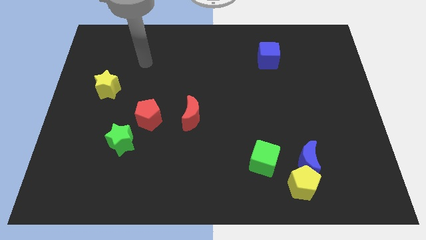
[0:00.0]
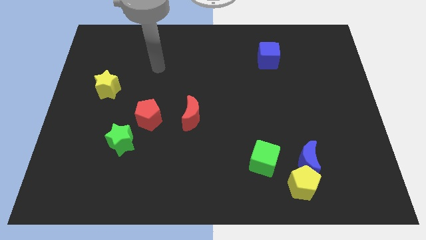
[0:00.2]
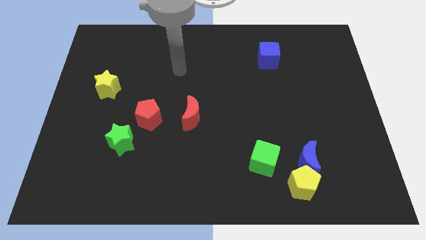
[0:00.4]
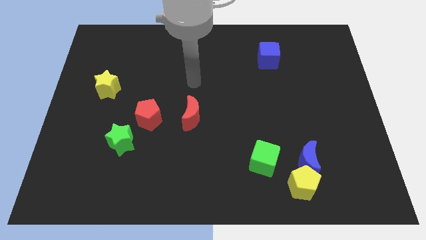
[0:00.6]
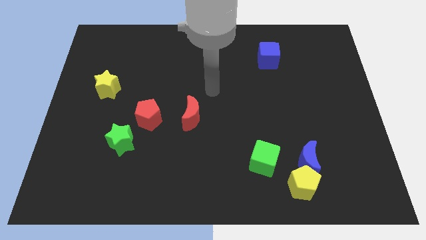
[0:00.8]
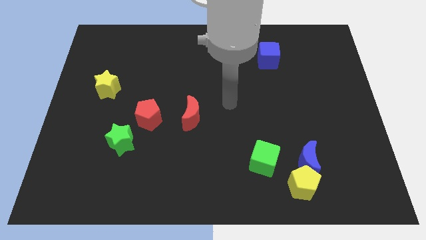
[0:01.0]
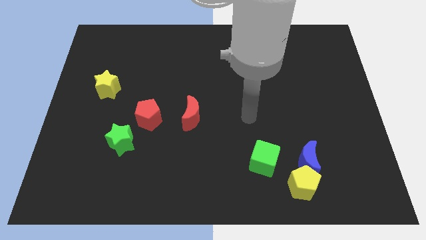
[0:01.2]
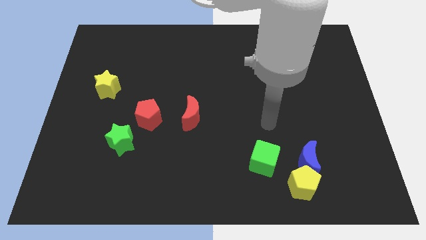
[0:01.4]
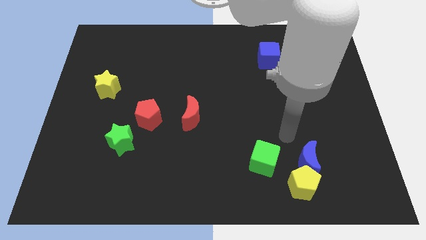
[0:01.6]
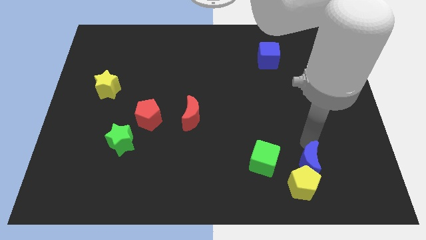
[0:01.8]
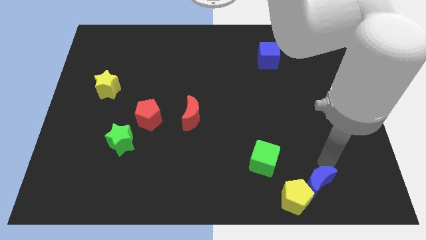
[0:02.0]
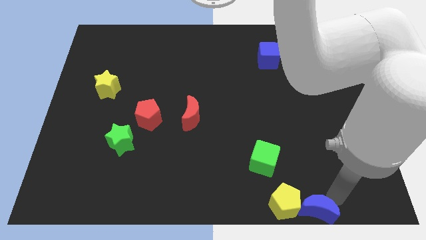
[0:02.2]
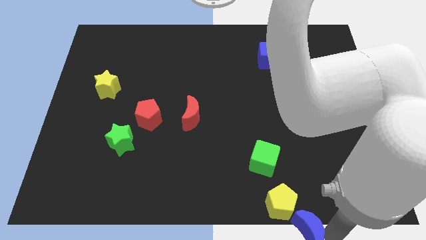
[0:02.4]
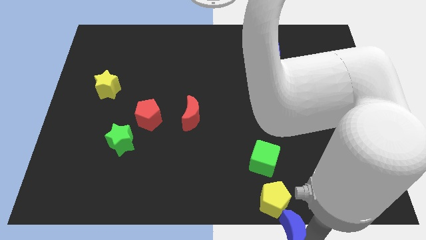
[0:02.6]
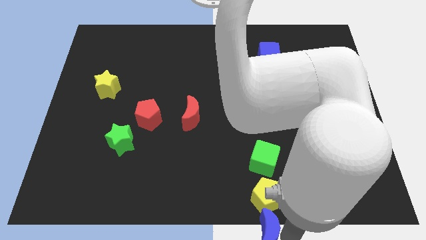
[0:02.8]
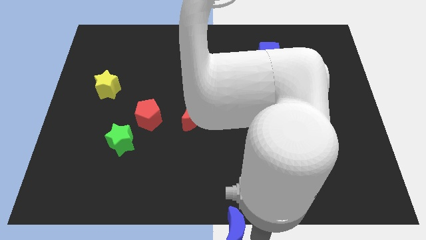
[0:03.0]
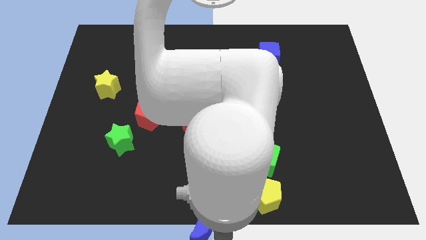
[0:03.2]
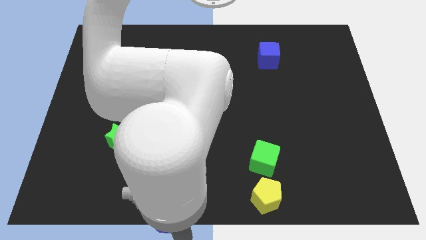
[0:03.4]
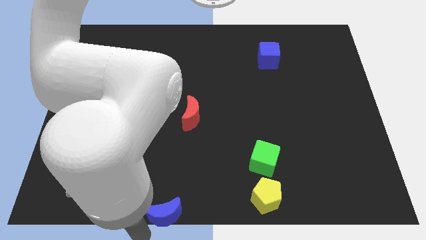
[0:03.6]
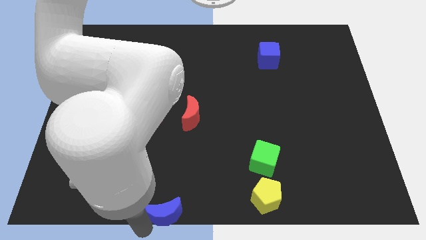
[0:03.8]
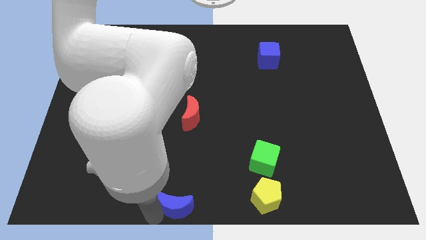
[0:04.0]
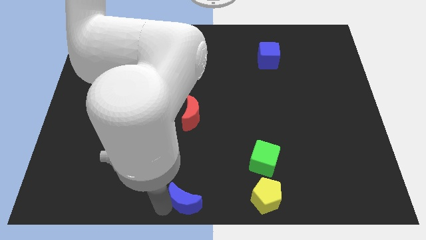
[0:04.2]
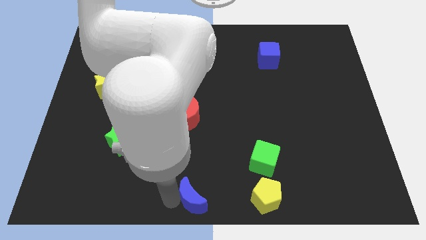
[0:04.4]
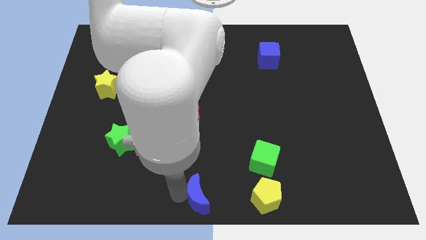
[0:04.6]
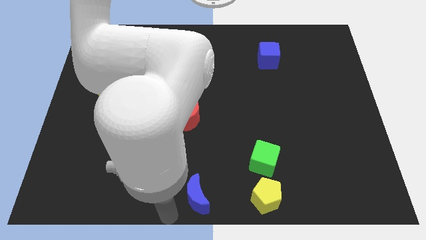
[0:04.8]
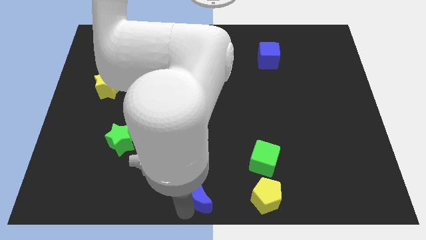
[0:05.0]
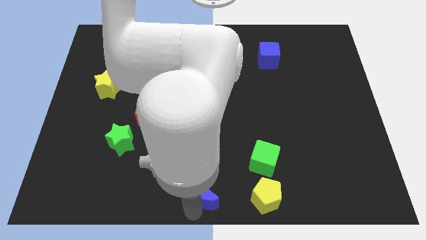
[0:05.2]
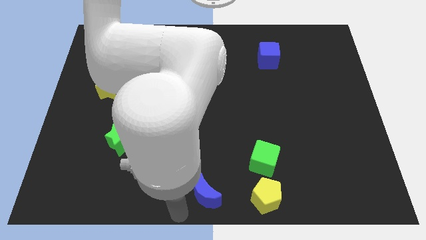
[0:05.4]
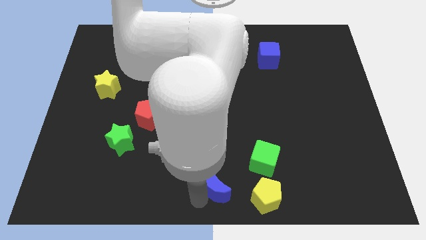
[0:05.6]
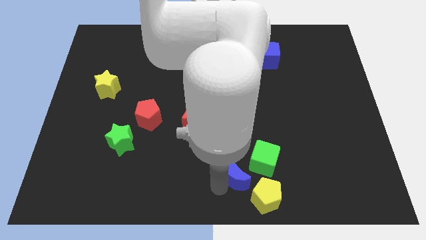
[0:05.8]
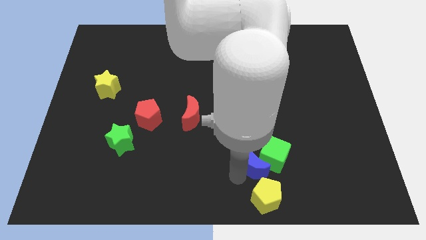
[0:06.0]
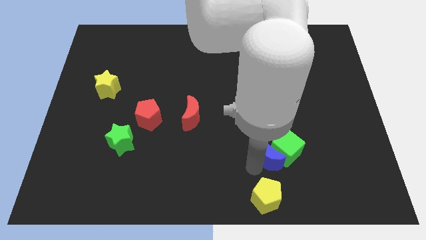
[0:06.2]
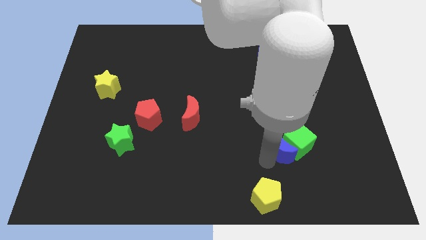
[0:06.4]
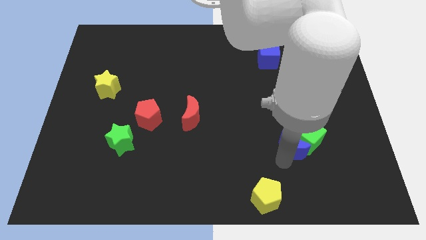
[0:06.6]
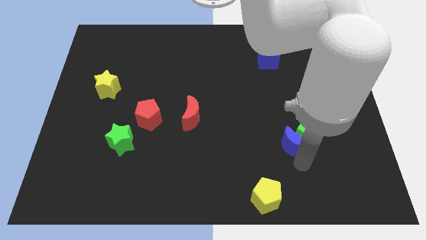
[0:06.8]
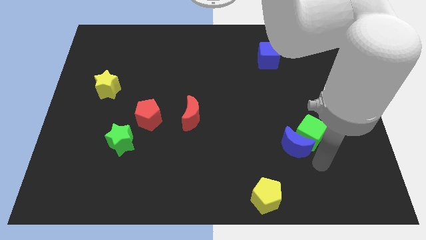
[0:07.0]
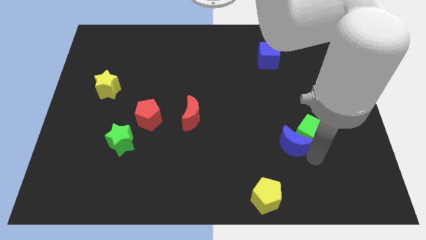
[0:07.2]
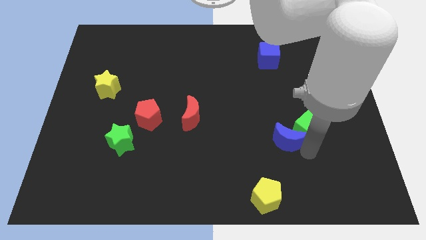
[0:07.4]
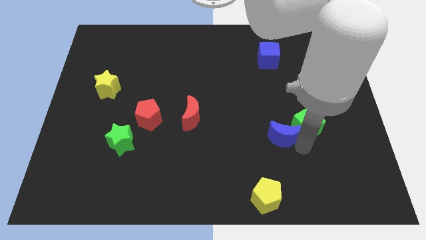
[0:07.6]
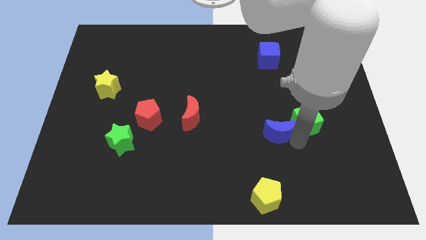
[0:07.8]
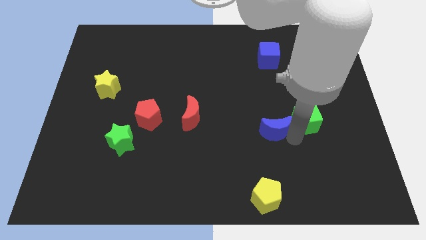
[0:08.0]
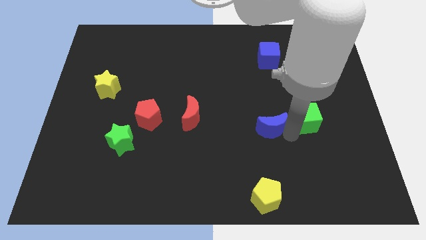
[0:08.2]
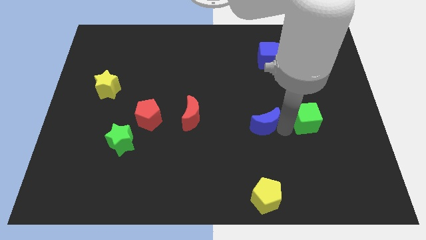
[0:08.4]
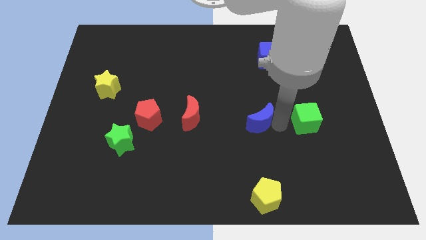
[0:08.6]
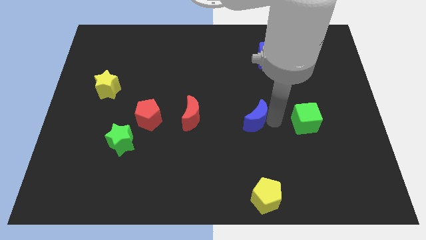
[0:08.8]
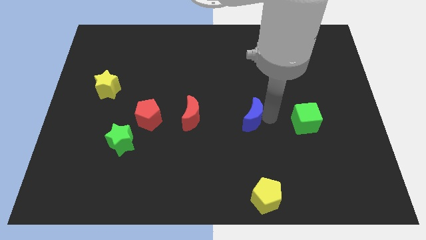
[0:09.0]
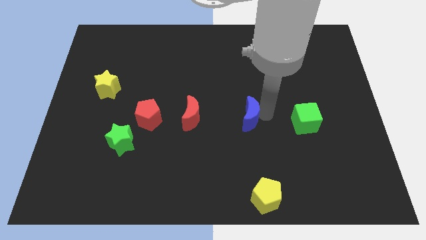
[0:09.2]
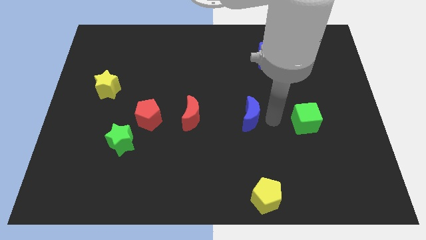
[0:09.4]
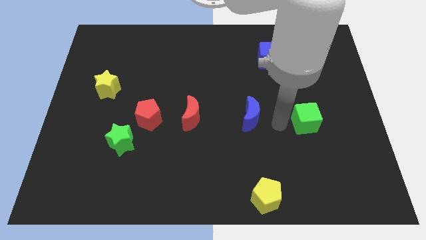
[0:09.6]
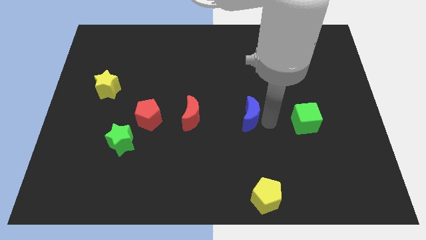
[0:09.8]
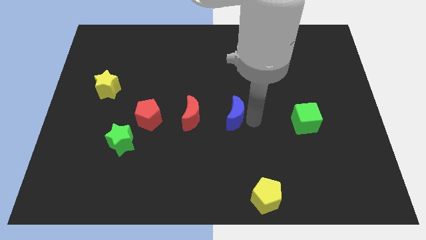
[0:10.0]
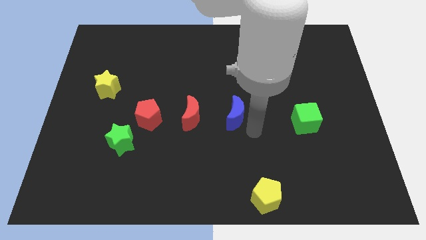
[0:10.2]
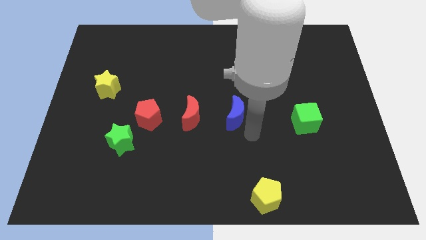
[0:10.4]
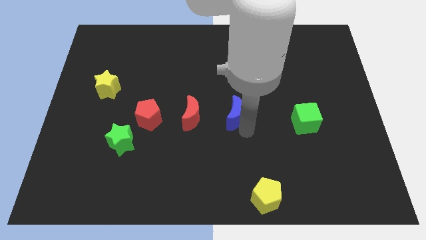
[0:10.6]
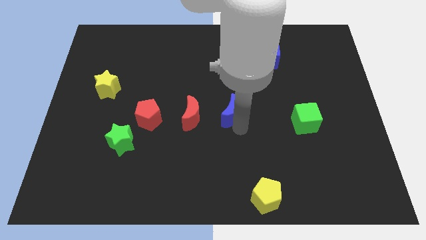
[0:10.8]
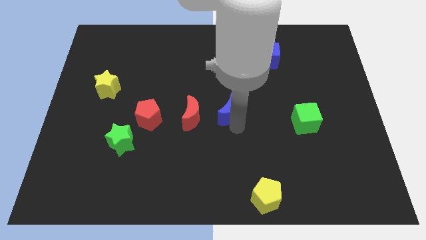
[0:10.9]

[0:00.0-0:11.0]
move the blue moon up and then to the left

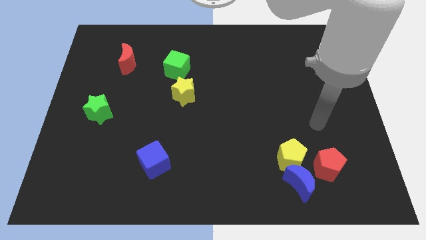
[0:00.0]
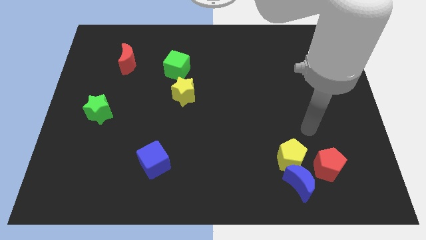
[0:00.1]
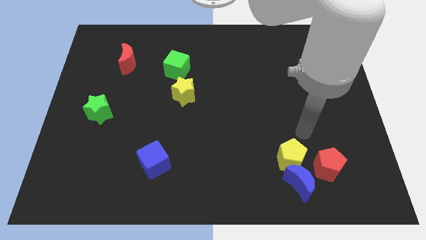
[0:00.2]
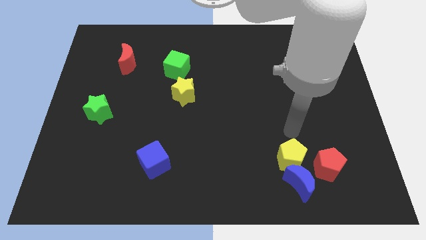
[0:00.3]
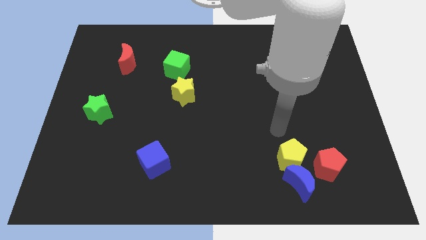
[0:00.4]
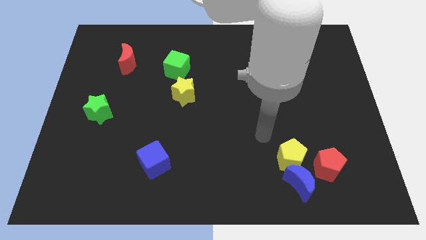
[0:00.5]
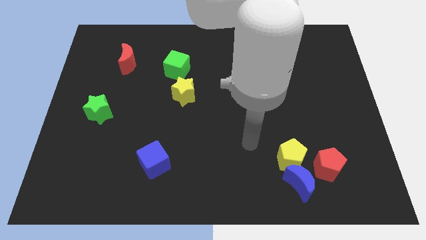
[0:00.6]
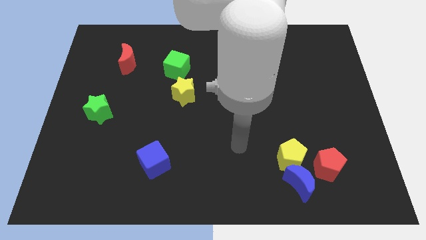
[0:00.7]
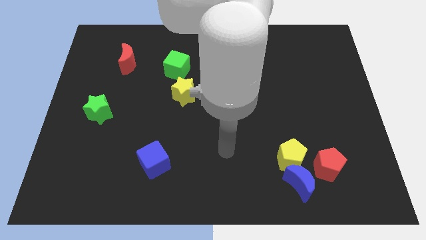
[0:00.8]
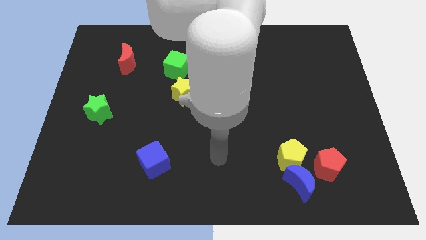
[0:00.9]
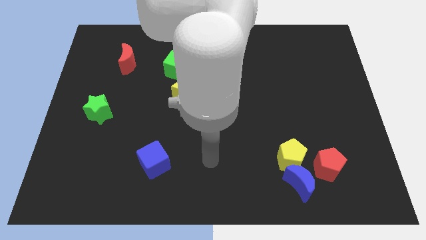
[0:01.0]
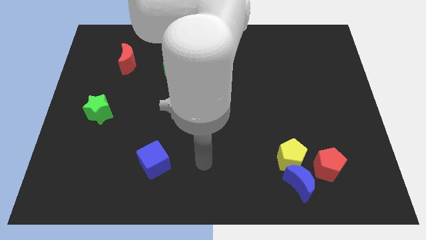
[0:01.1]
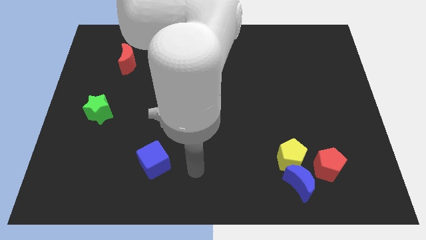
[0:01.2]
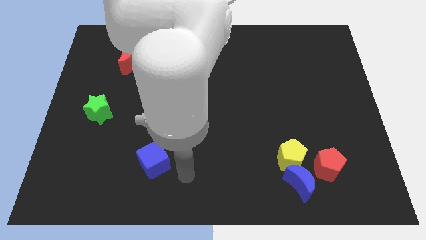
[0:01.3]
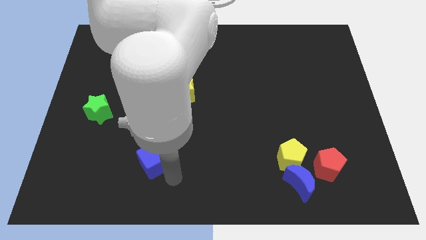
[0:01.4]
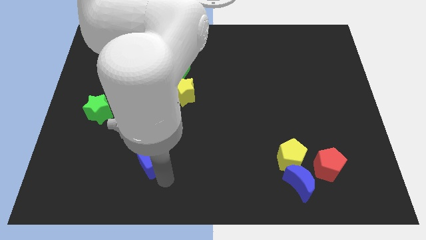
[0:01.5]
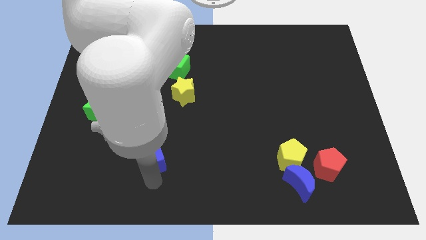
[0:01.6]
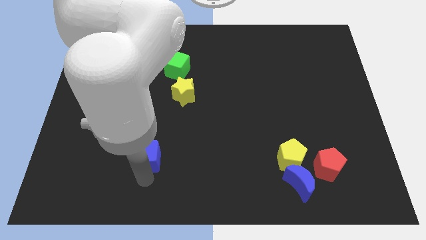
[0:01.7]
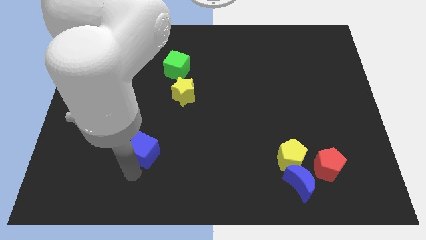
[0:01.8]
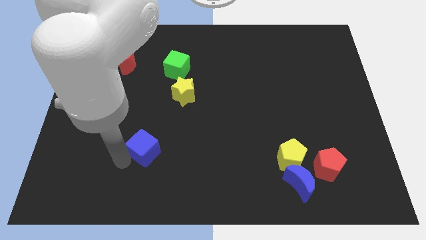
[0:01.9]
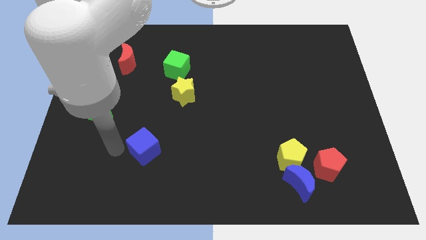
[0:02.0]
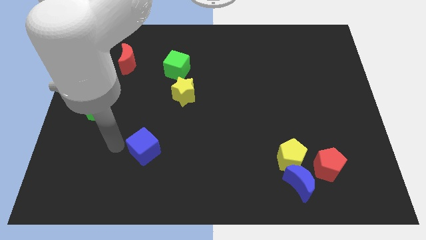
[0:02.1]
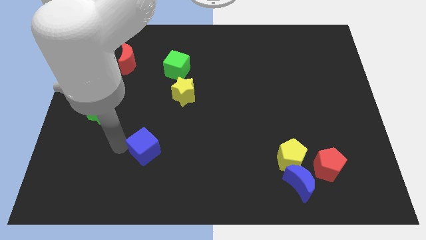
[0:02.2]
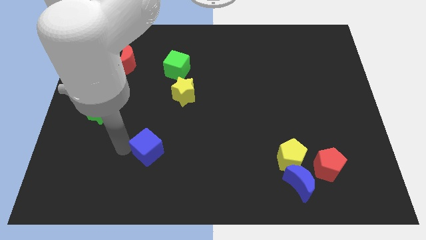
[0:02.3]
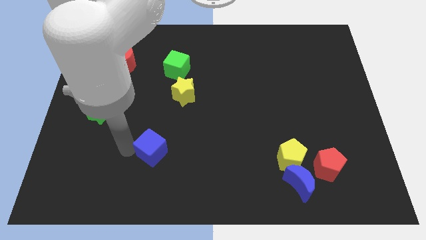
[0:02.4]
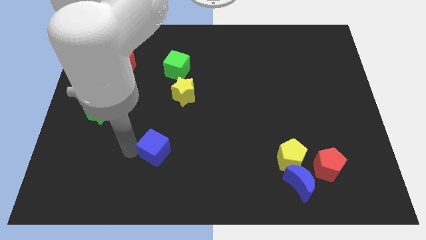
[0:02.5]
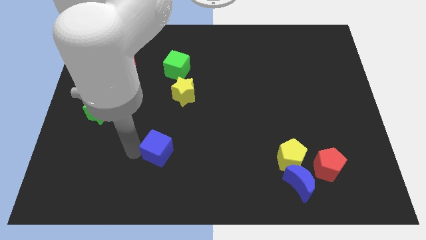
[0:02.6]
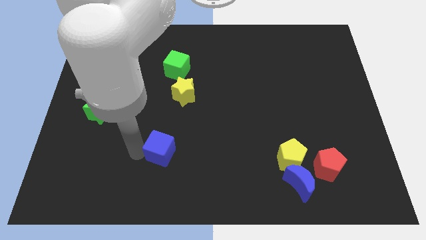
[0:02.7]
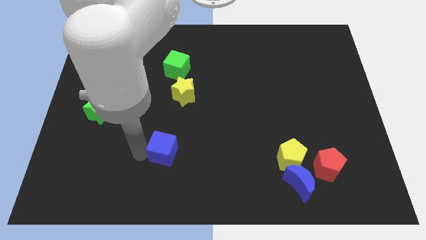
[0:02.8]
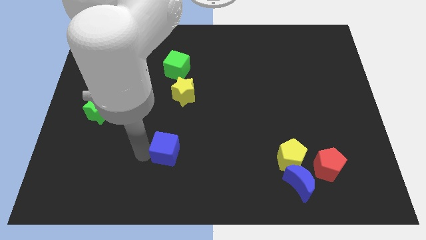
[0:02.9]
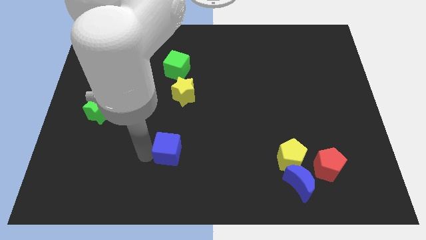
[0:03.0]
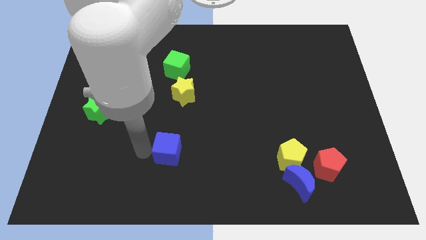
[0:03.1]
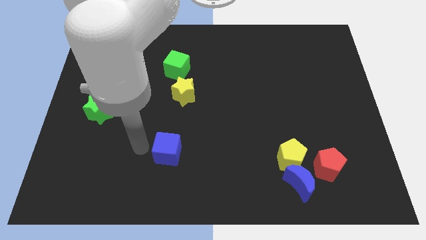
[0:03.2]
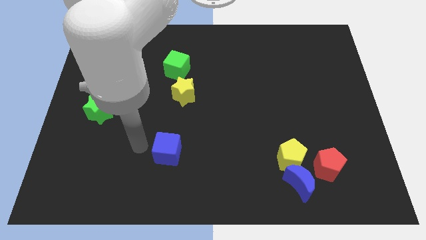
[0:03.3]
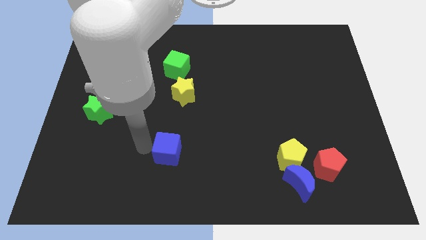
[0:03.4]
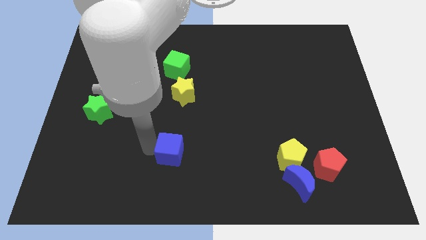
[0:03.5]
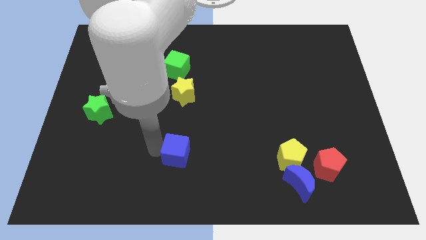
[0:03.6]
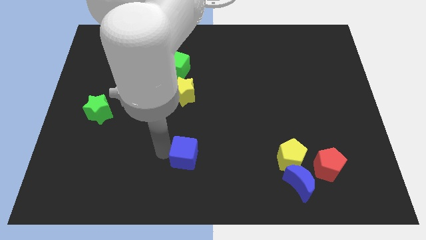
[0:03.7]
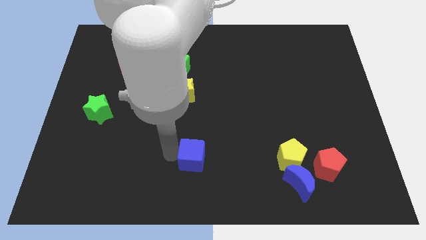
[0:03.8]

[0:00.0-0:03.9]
slightly move the blue cube right
